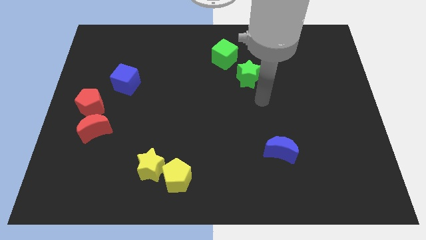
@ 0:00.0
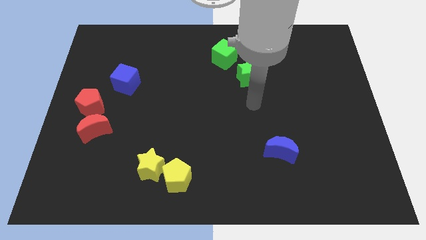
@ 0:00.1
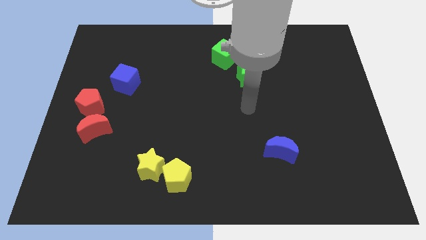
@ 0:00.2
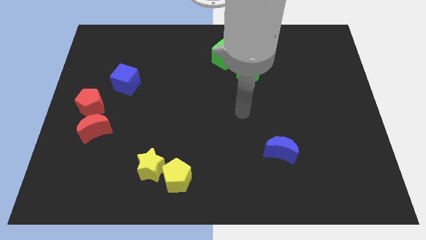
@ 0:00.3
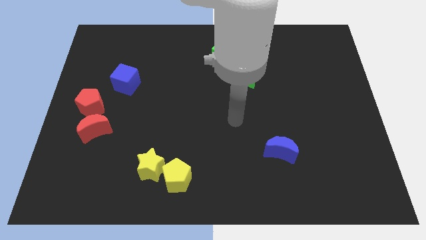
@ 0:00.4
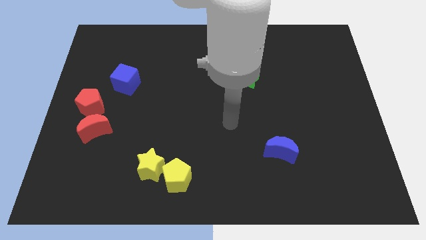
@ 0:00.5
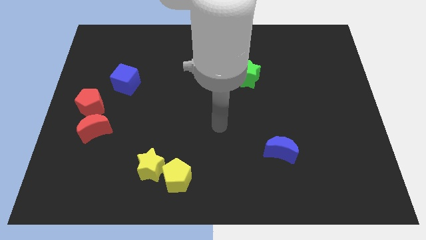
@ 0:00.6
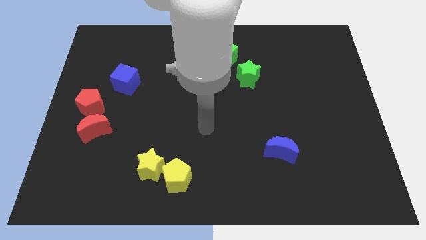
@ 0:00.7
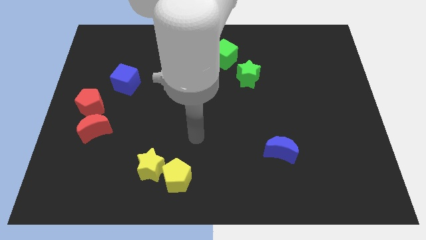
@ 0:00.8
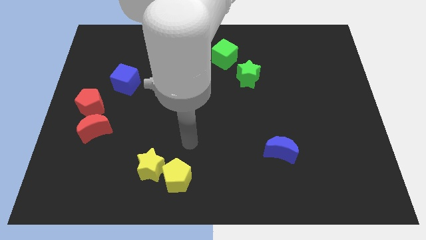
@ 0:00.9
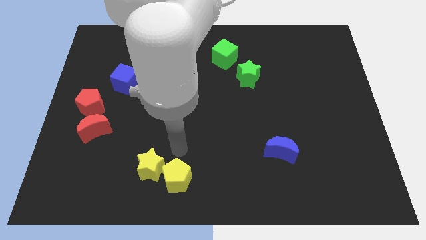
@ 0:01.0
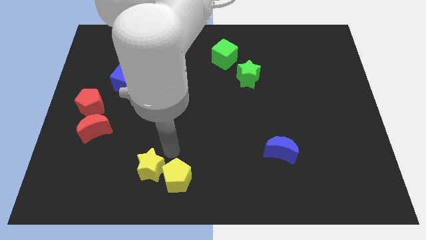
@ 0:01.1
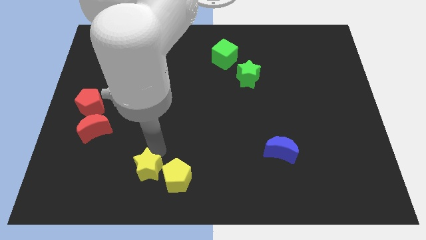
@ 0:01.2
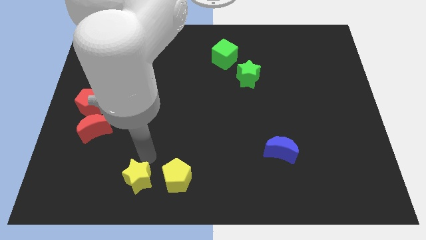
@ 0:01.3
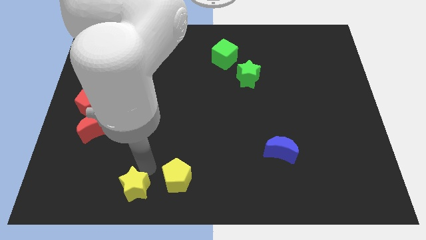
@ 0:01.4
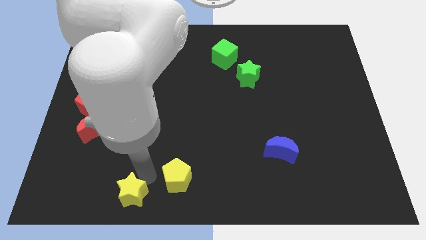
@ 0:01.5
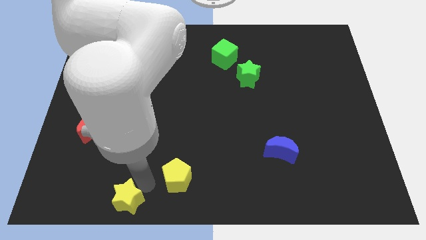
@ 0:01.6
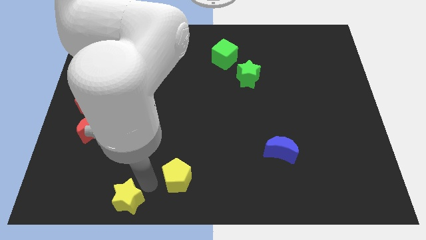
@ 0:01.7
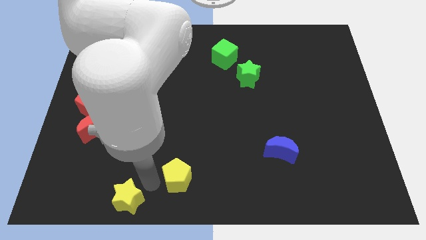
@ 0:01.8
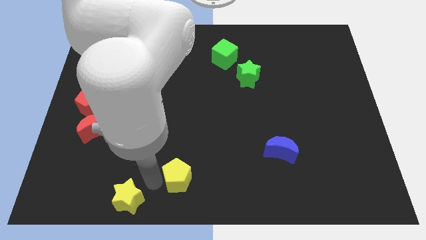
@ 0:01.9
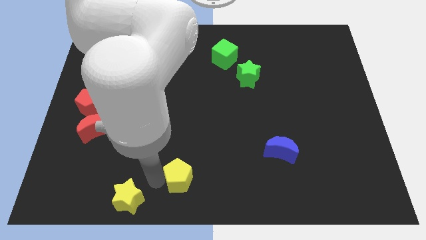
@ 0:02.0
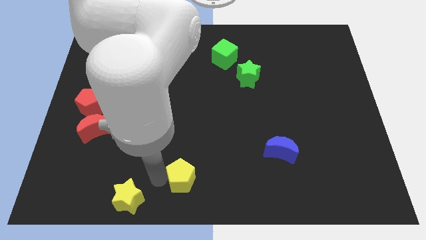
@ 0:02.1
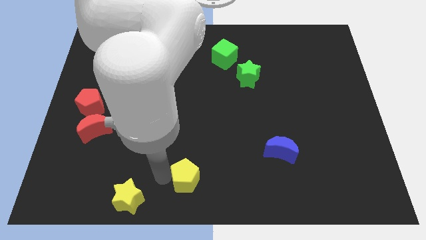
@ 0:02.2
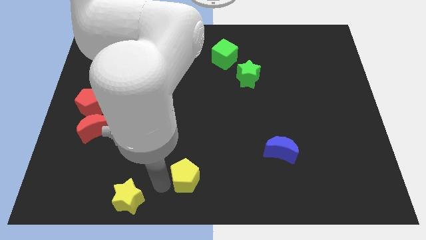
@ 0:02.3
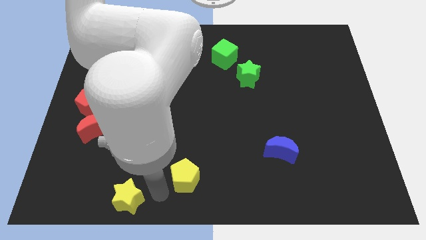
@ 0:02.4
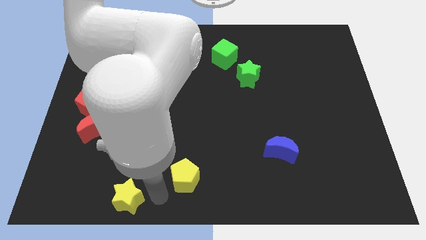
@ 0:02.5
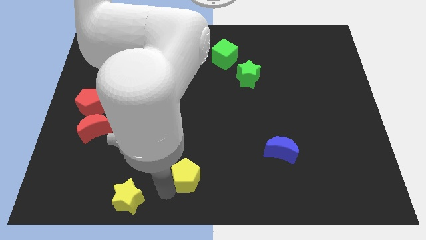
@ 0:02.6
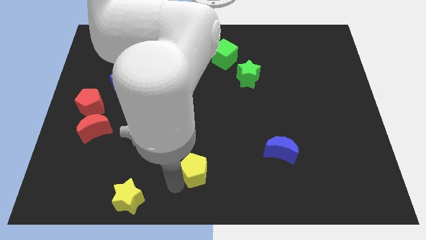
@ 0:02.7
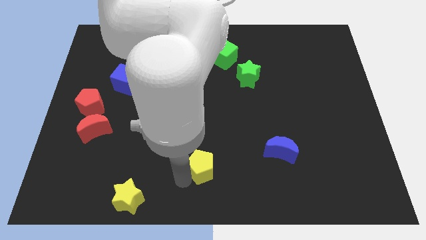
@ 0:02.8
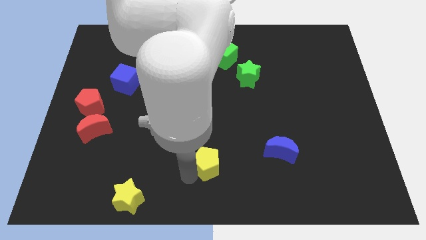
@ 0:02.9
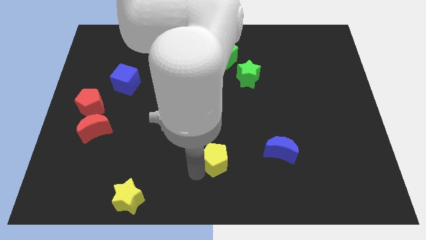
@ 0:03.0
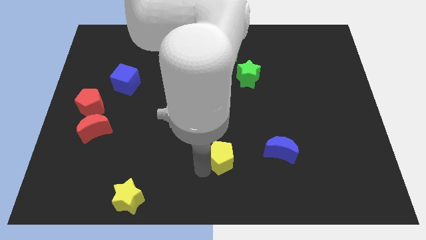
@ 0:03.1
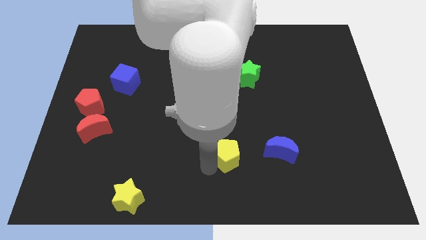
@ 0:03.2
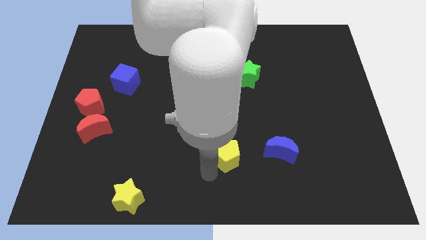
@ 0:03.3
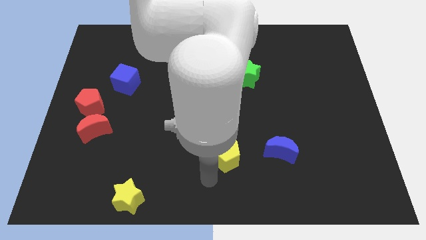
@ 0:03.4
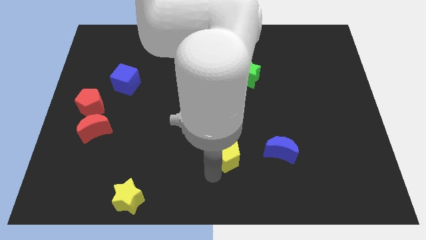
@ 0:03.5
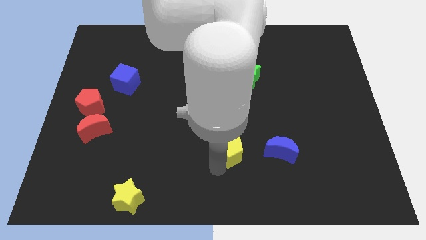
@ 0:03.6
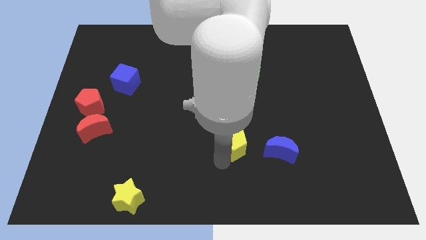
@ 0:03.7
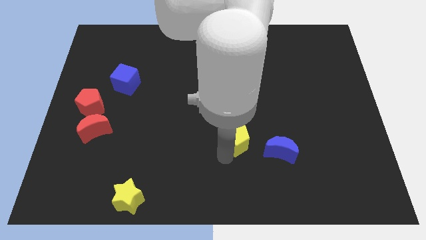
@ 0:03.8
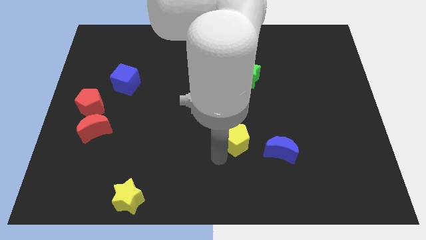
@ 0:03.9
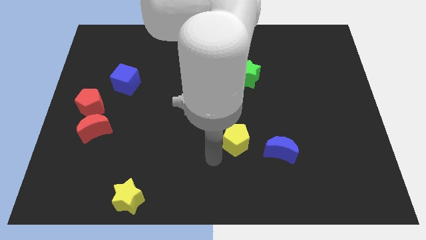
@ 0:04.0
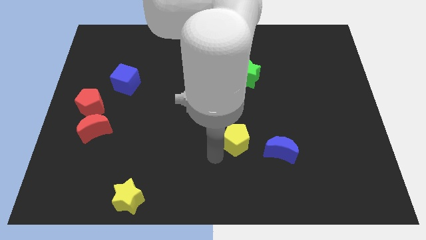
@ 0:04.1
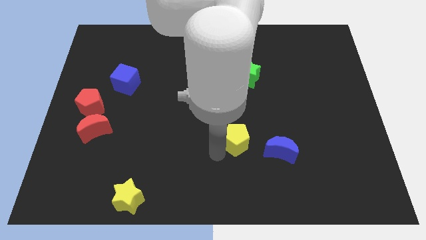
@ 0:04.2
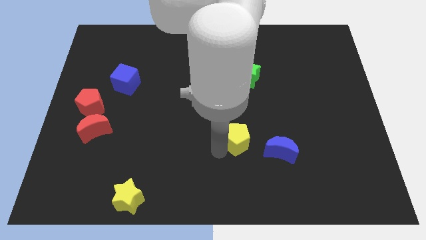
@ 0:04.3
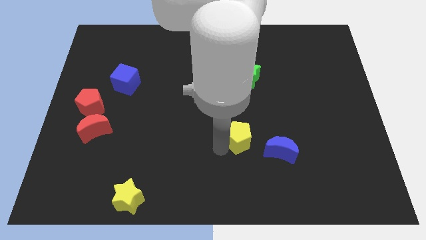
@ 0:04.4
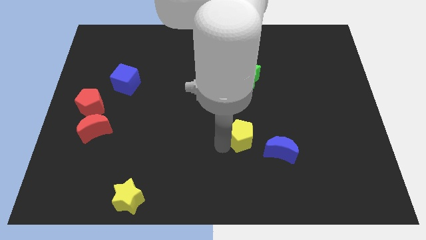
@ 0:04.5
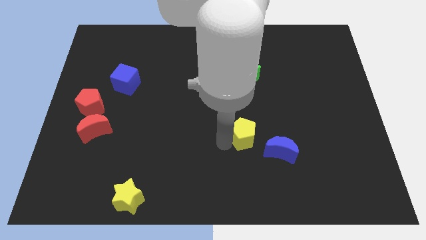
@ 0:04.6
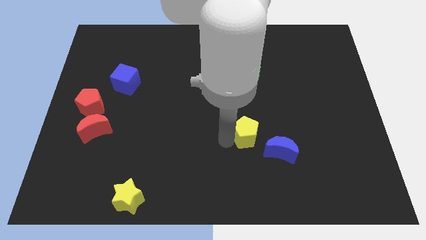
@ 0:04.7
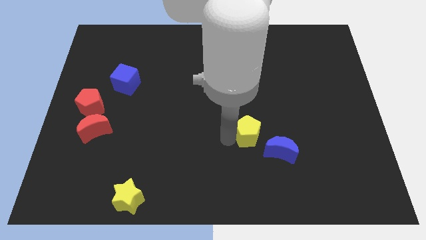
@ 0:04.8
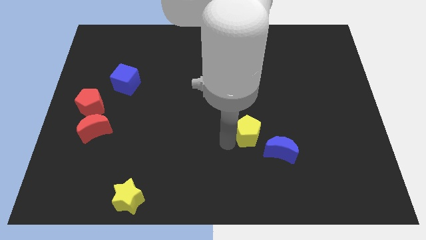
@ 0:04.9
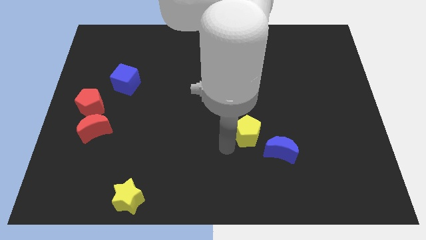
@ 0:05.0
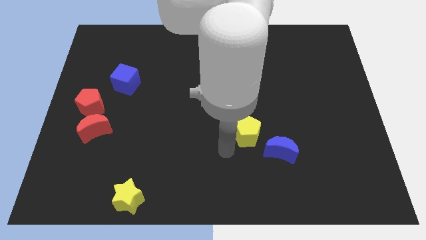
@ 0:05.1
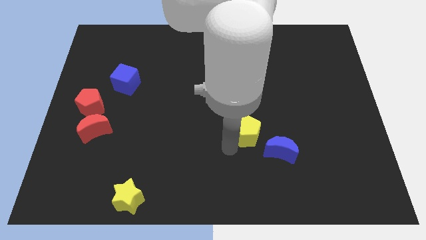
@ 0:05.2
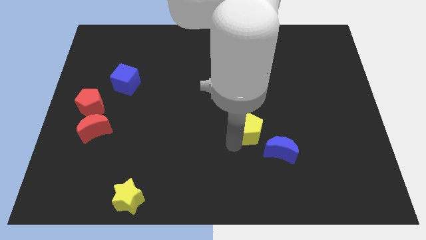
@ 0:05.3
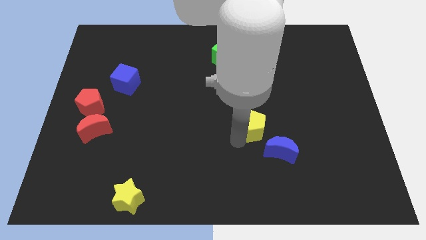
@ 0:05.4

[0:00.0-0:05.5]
move the yellow pentagon up and to the right diagonally

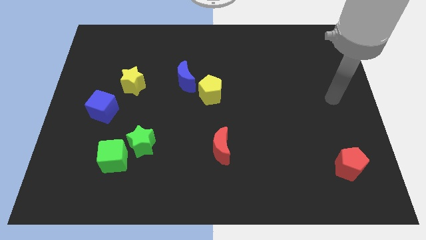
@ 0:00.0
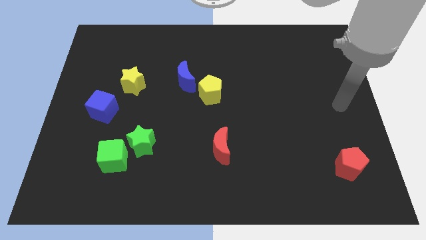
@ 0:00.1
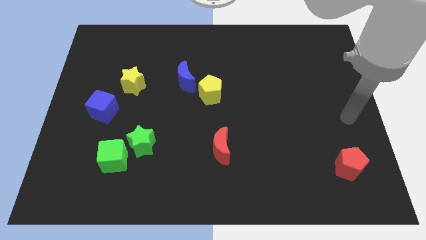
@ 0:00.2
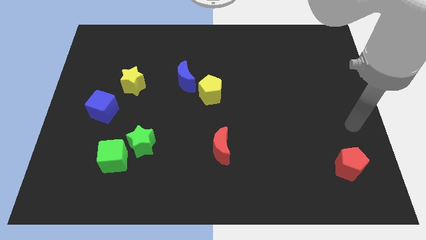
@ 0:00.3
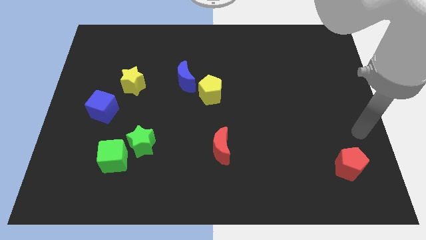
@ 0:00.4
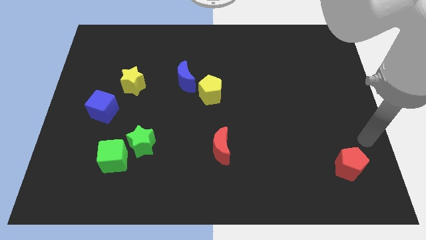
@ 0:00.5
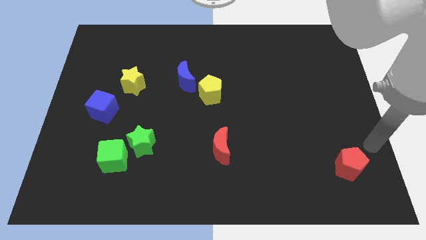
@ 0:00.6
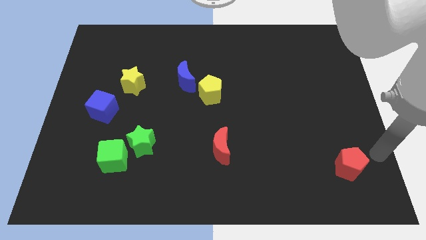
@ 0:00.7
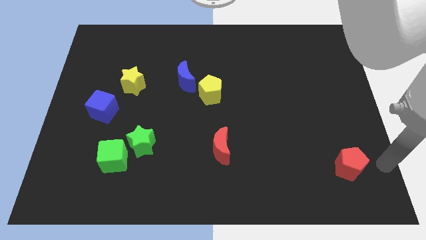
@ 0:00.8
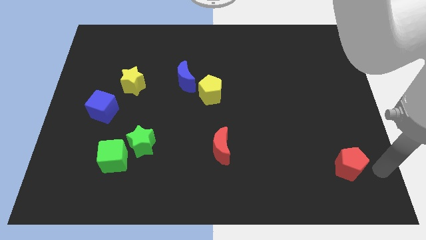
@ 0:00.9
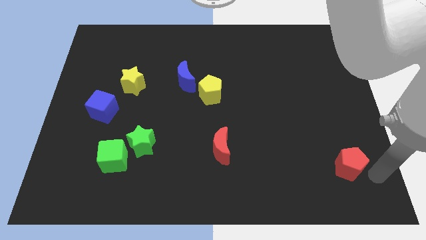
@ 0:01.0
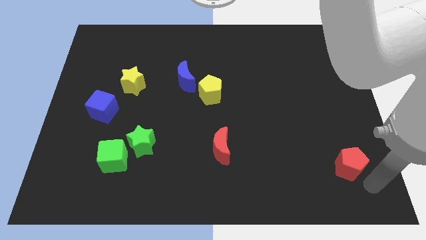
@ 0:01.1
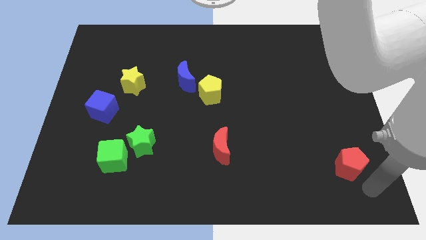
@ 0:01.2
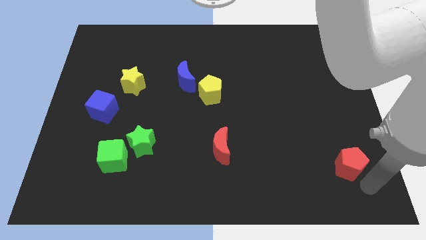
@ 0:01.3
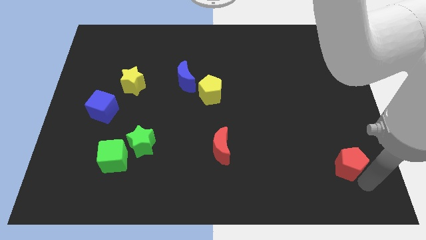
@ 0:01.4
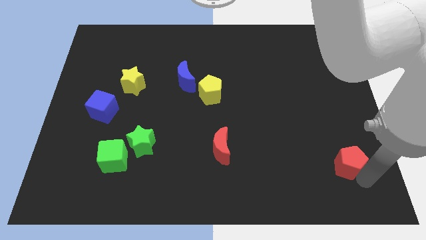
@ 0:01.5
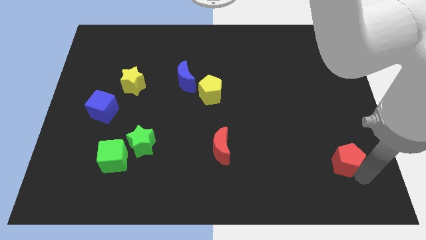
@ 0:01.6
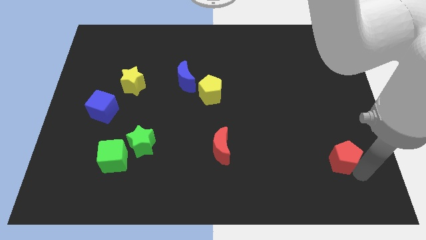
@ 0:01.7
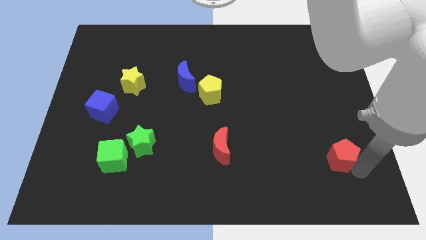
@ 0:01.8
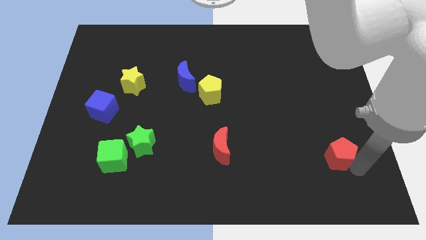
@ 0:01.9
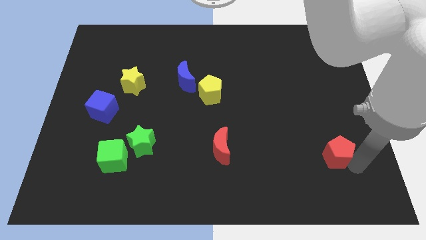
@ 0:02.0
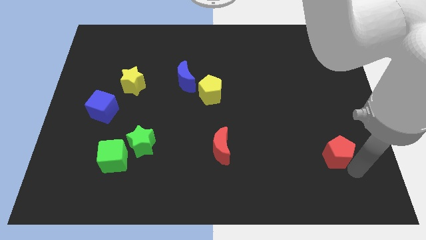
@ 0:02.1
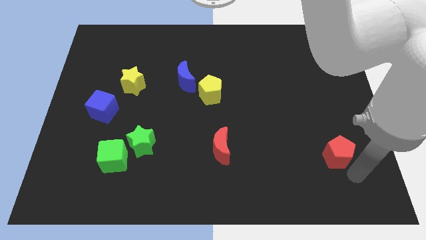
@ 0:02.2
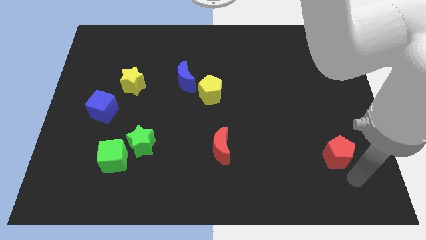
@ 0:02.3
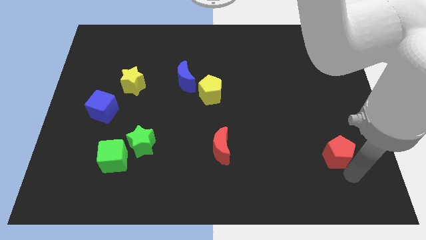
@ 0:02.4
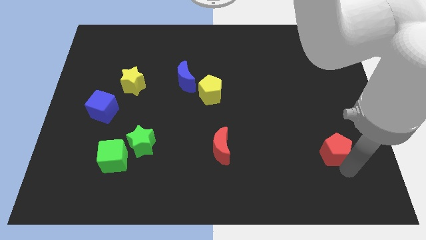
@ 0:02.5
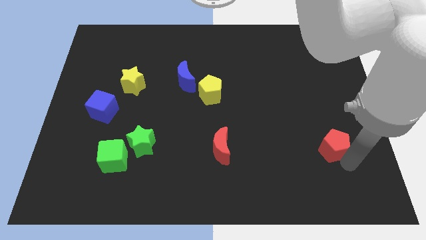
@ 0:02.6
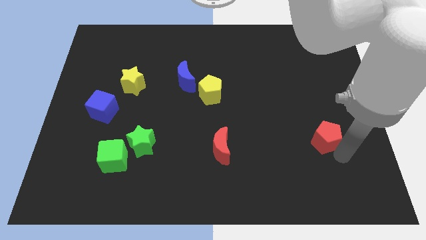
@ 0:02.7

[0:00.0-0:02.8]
move the red pentagon a little bit diagonally upwards and to the left
